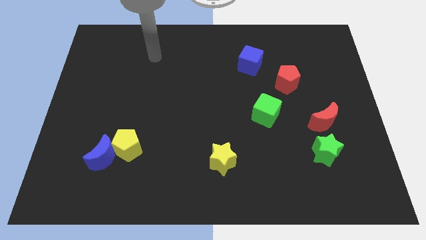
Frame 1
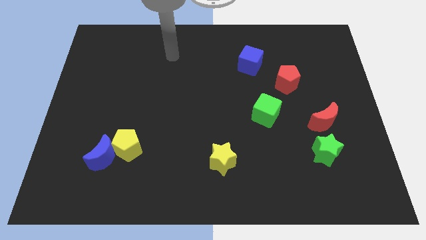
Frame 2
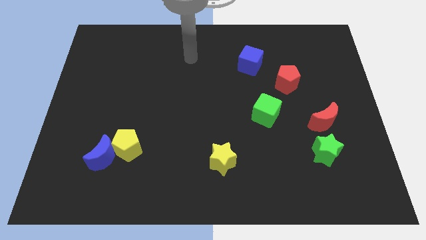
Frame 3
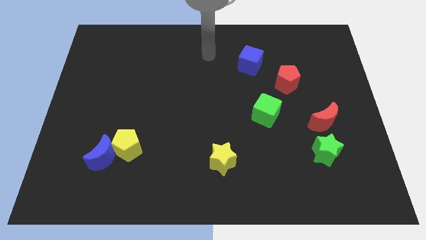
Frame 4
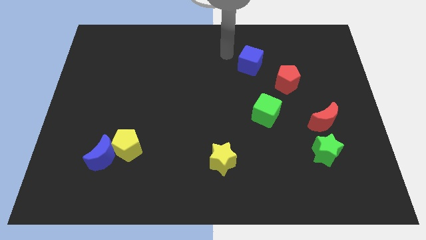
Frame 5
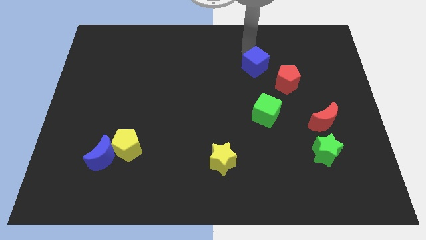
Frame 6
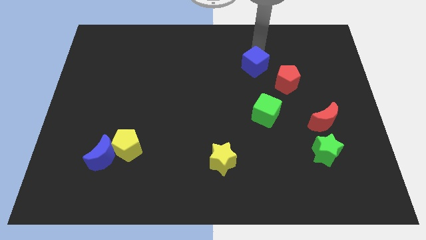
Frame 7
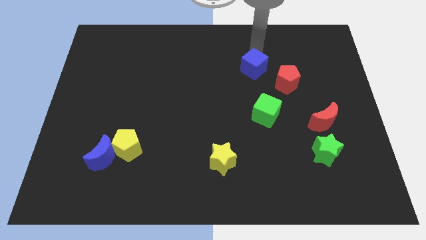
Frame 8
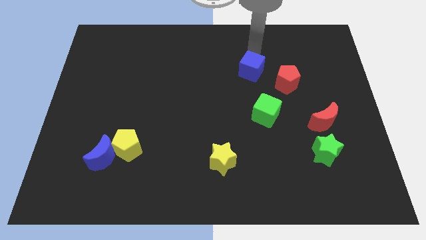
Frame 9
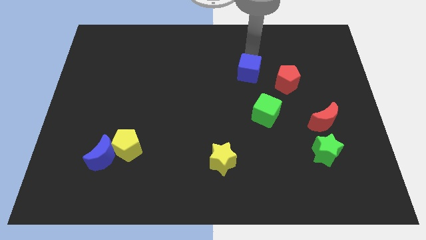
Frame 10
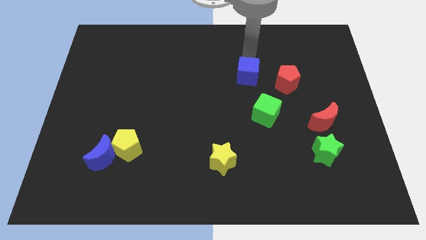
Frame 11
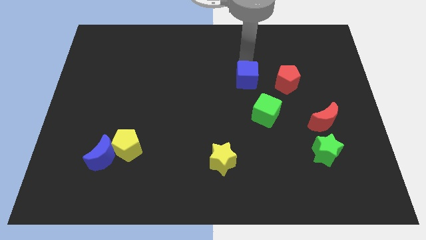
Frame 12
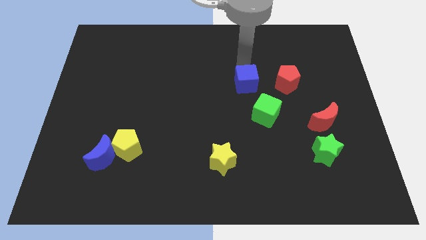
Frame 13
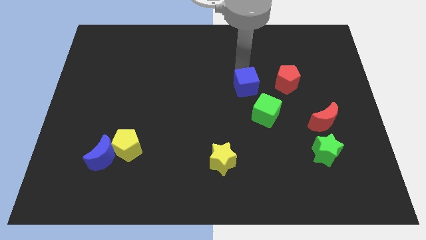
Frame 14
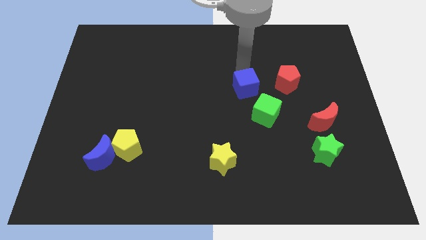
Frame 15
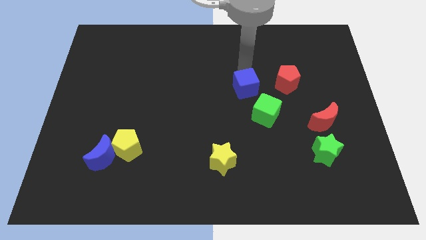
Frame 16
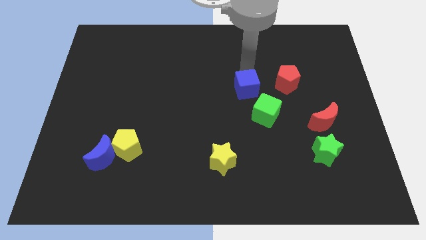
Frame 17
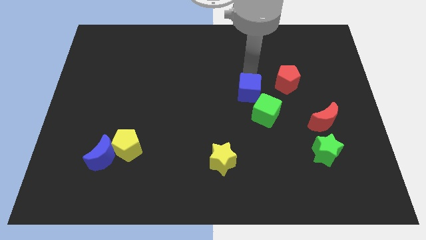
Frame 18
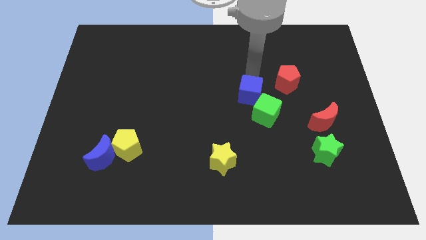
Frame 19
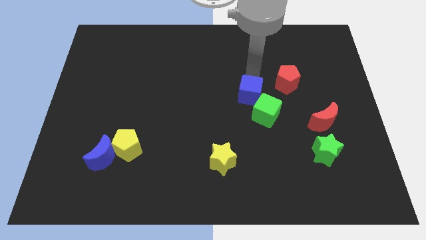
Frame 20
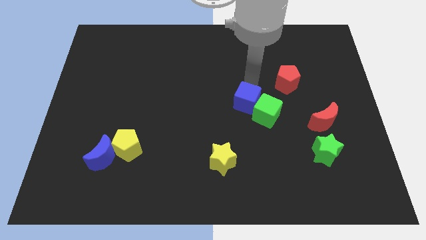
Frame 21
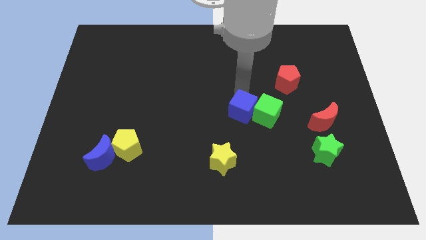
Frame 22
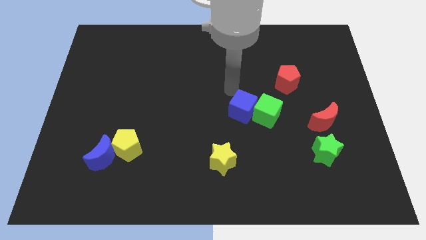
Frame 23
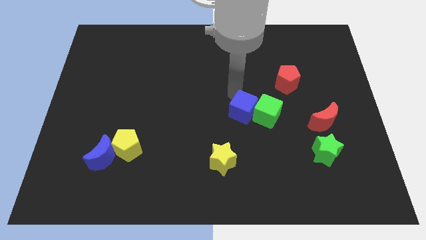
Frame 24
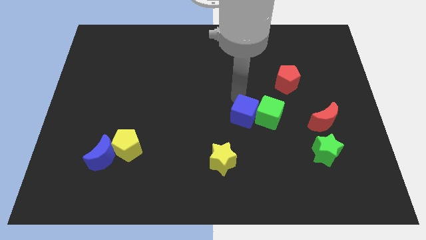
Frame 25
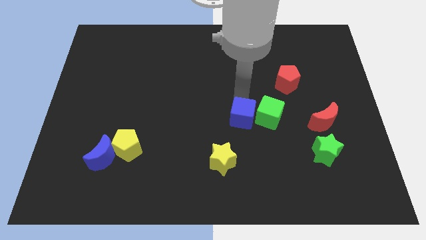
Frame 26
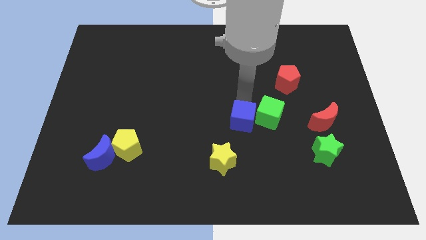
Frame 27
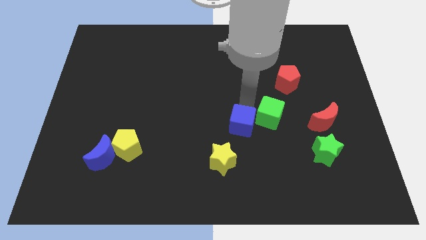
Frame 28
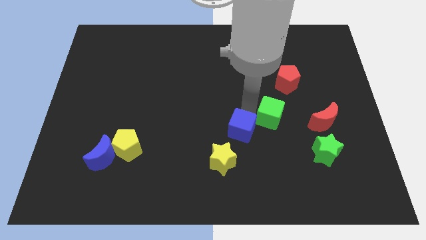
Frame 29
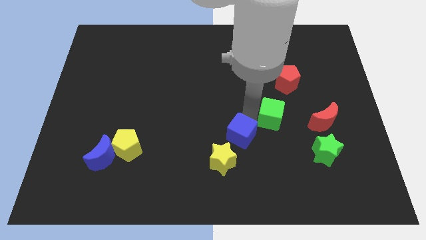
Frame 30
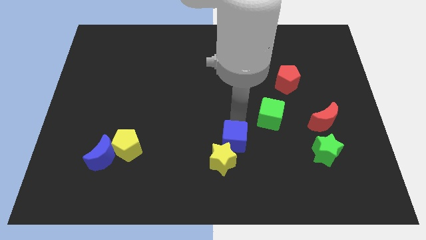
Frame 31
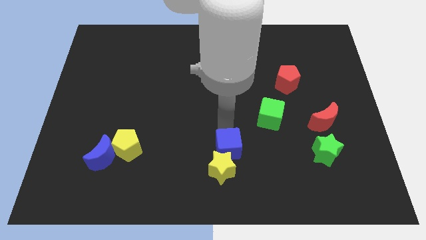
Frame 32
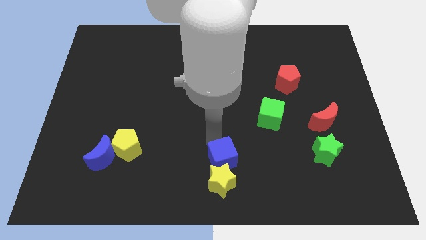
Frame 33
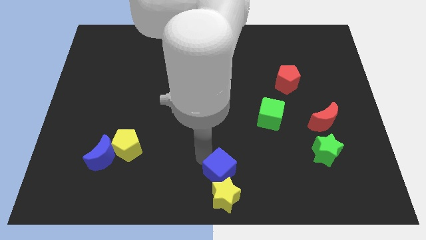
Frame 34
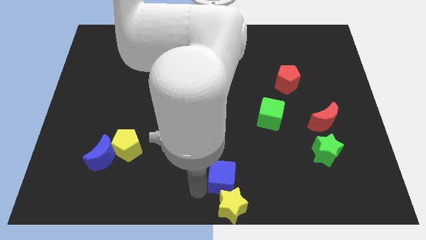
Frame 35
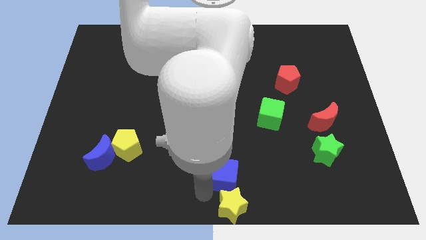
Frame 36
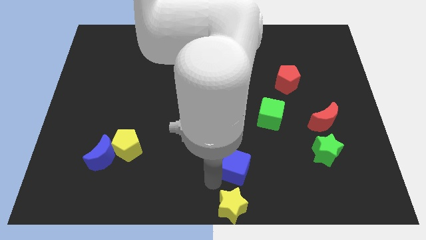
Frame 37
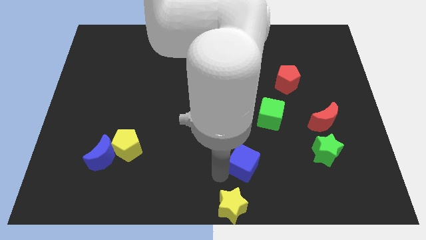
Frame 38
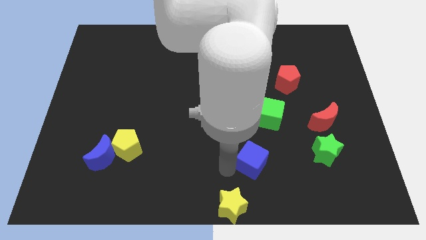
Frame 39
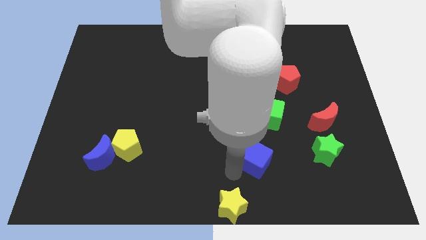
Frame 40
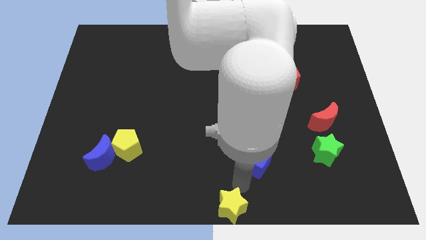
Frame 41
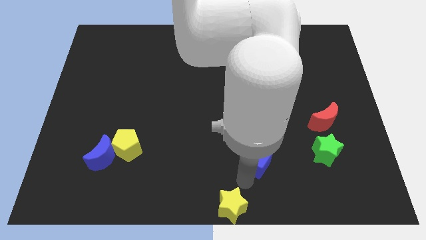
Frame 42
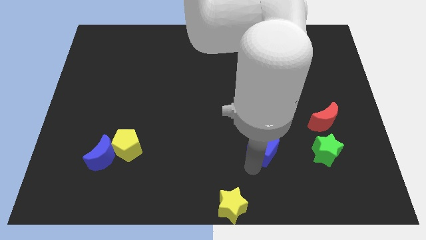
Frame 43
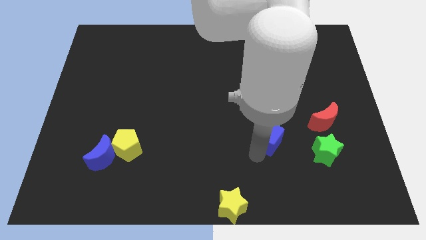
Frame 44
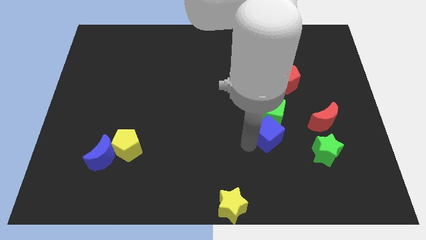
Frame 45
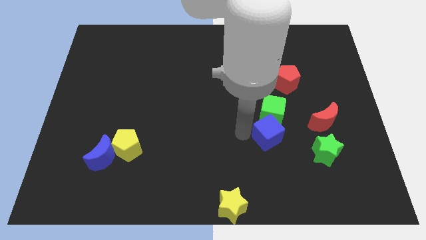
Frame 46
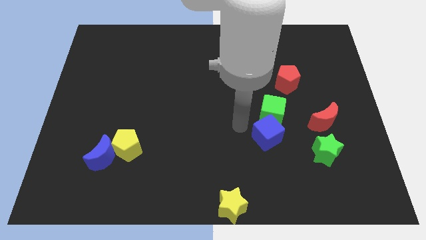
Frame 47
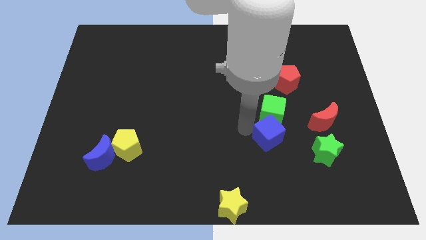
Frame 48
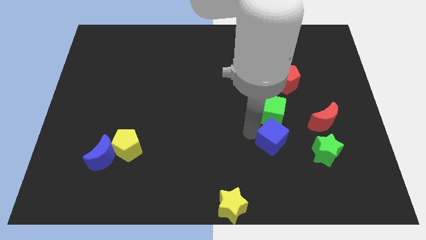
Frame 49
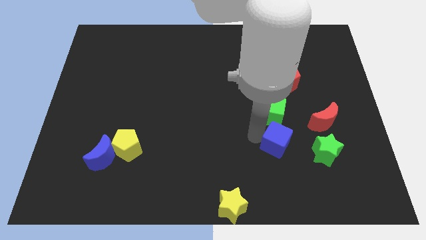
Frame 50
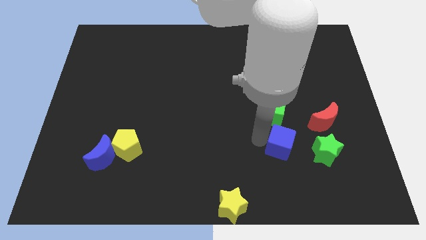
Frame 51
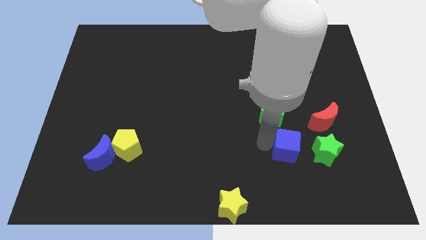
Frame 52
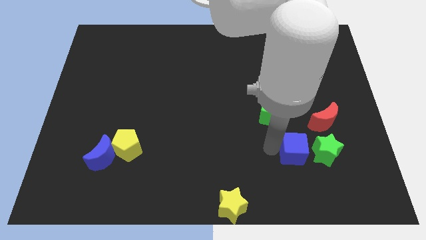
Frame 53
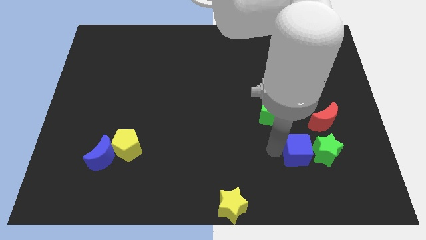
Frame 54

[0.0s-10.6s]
put the blue cube towards the green star

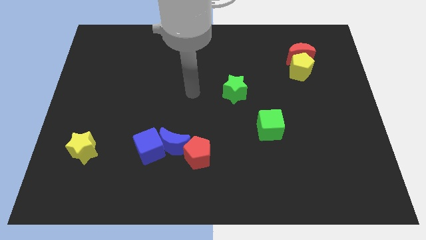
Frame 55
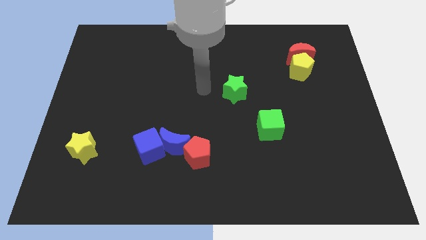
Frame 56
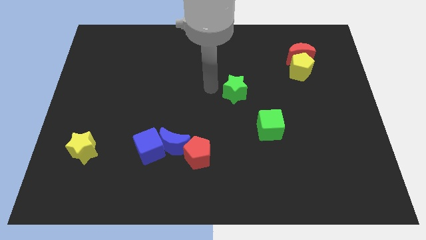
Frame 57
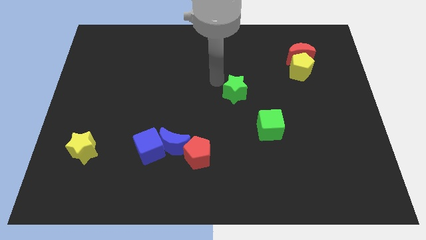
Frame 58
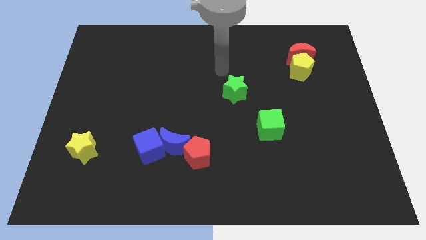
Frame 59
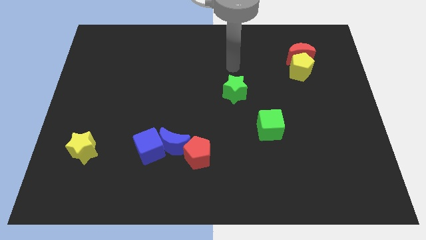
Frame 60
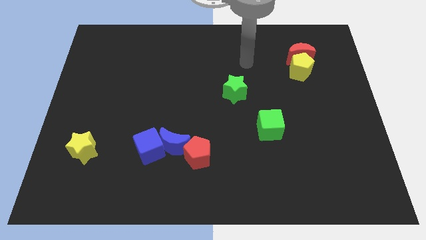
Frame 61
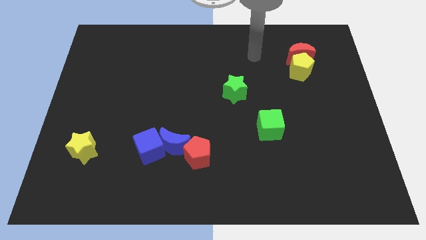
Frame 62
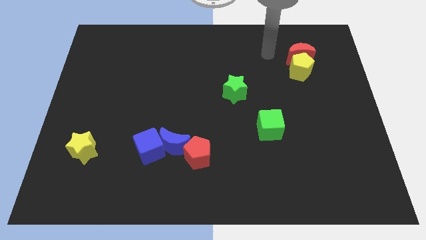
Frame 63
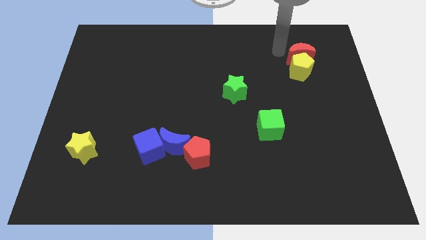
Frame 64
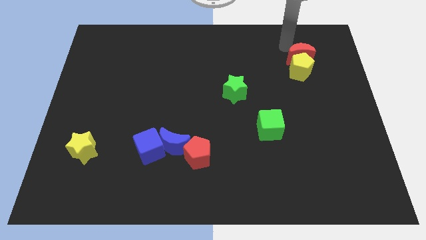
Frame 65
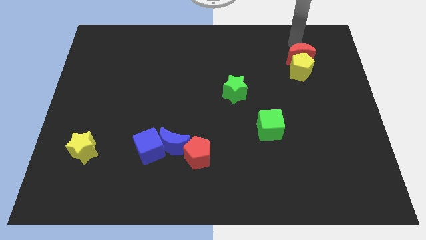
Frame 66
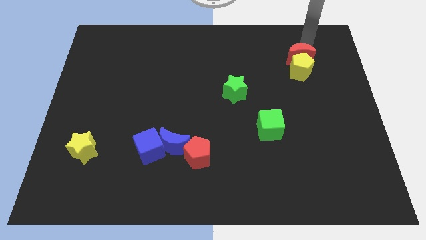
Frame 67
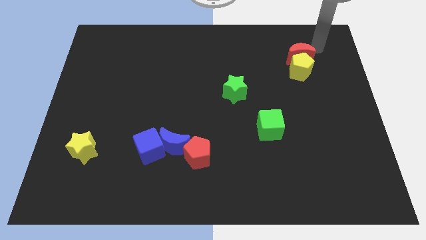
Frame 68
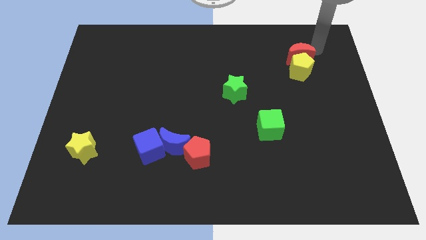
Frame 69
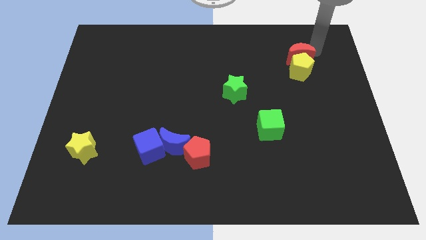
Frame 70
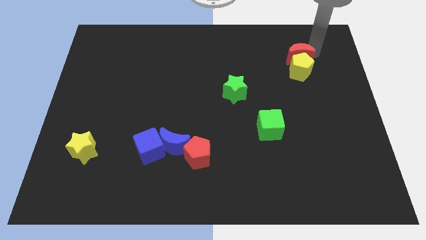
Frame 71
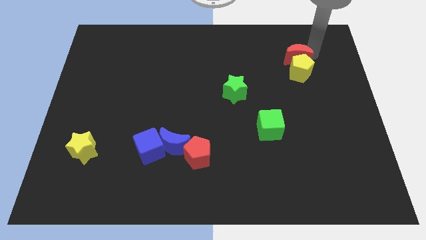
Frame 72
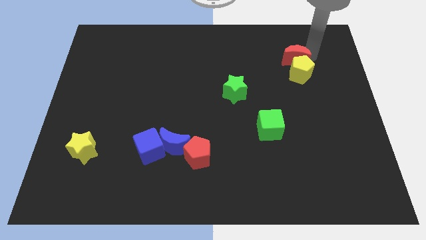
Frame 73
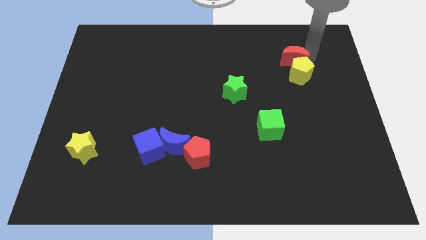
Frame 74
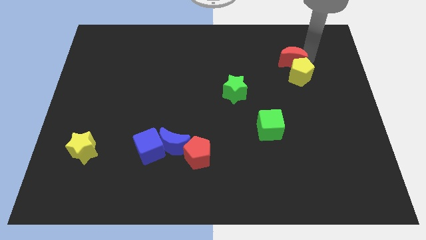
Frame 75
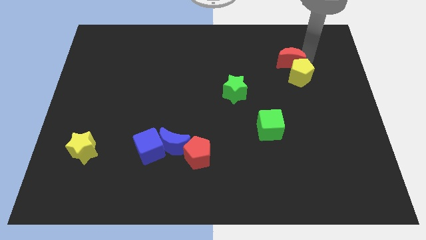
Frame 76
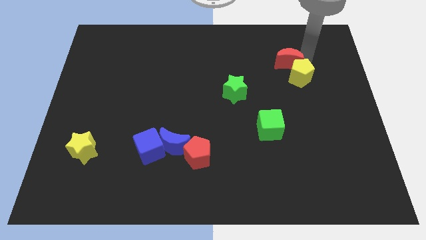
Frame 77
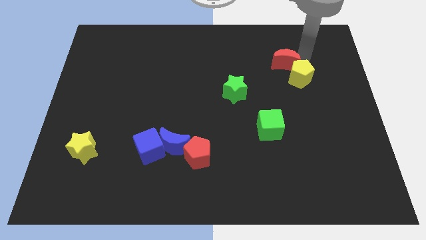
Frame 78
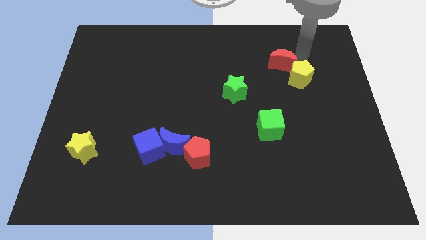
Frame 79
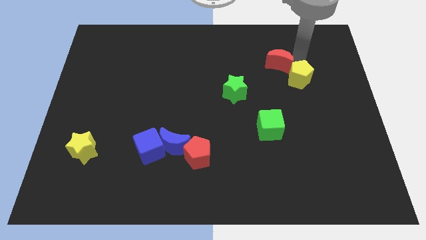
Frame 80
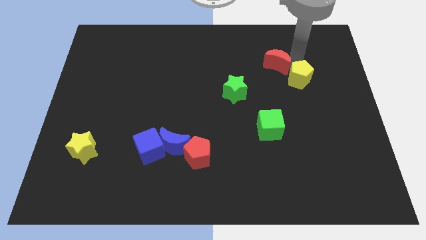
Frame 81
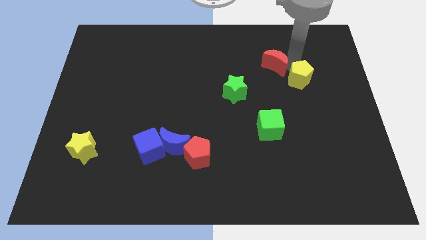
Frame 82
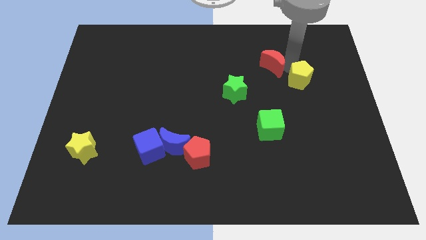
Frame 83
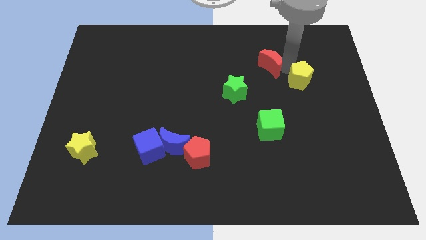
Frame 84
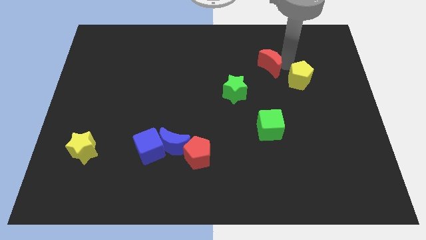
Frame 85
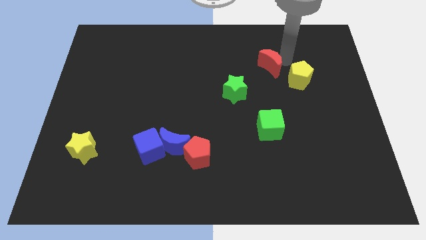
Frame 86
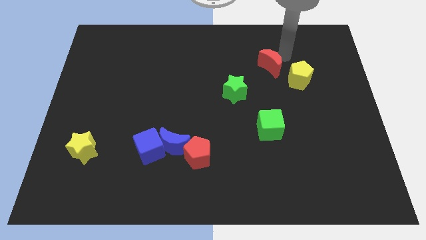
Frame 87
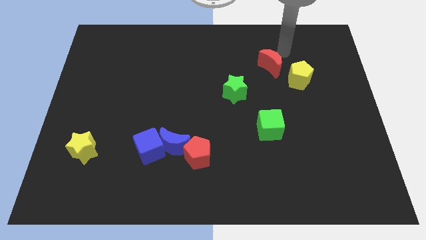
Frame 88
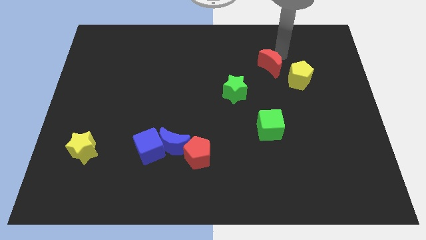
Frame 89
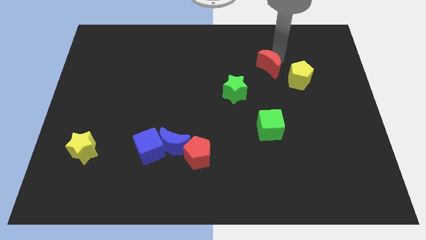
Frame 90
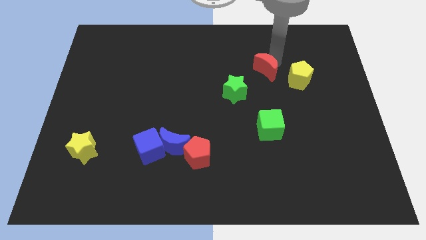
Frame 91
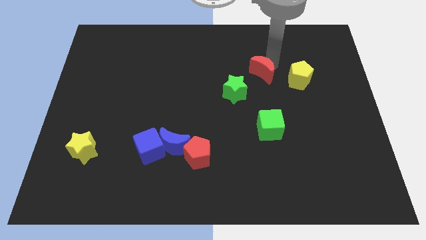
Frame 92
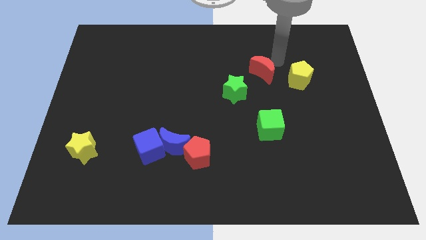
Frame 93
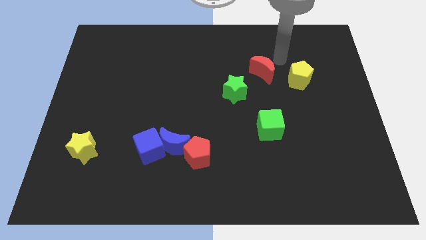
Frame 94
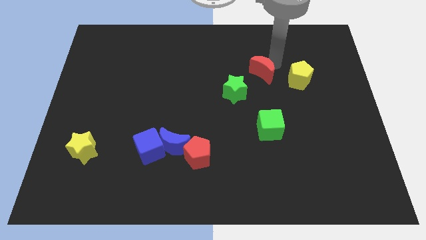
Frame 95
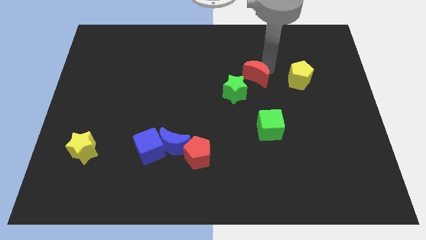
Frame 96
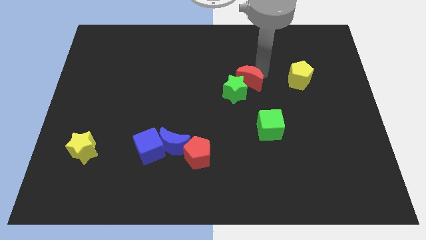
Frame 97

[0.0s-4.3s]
put the red moon towards the green star
